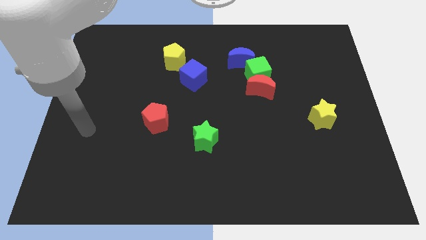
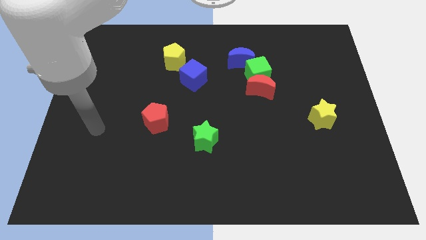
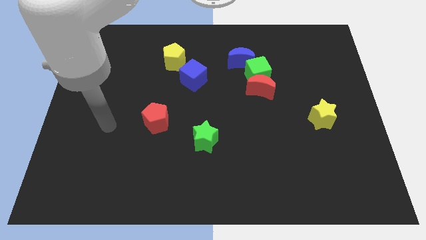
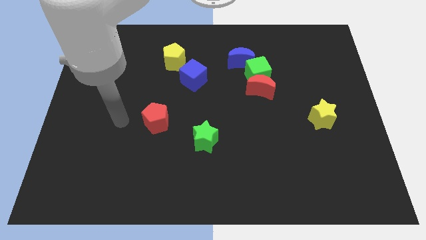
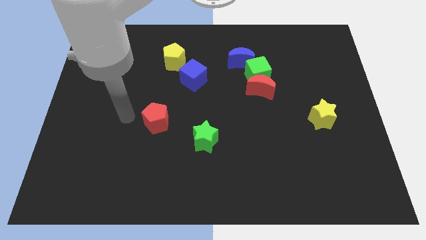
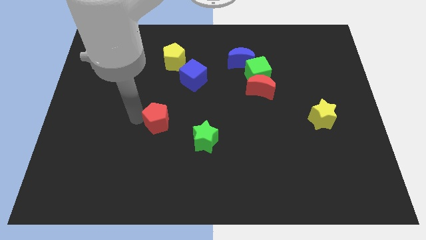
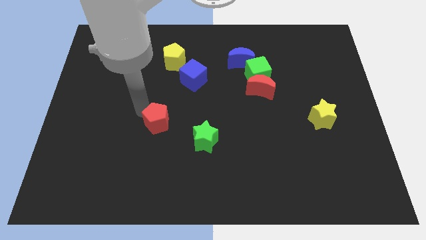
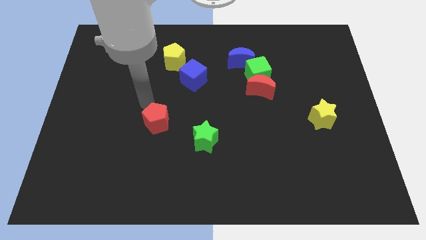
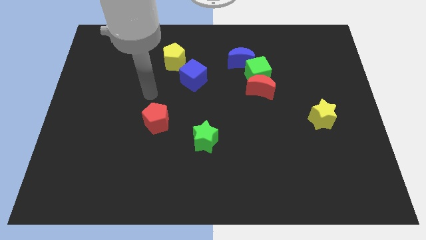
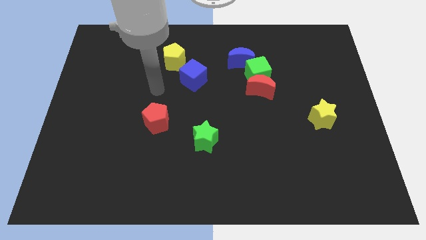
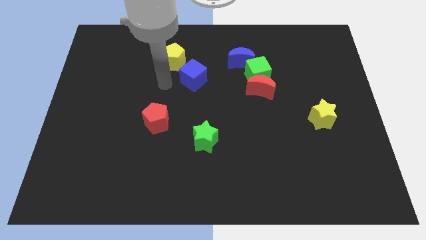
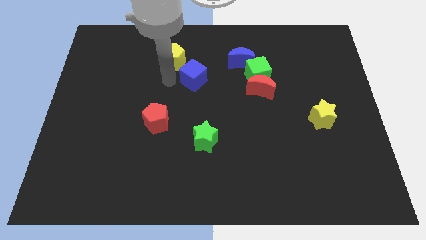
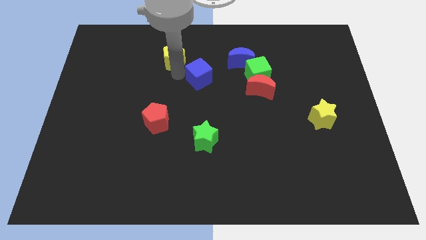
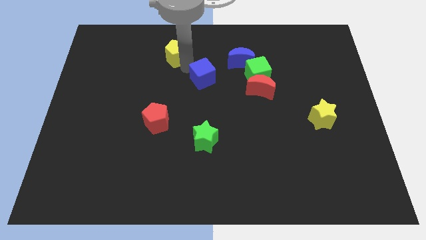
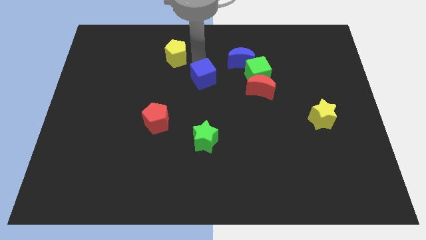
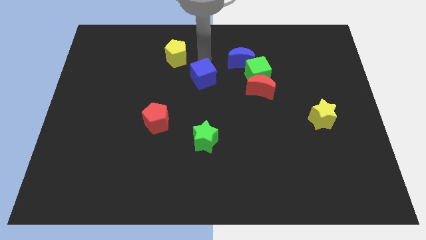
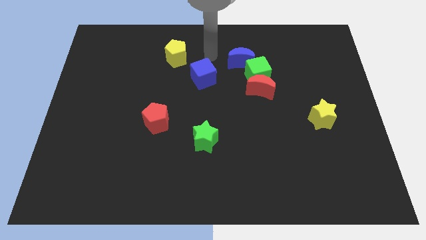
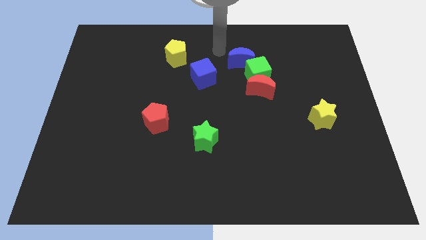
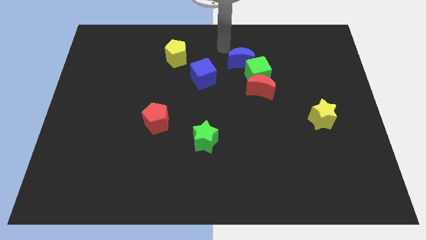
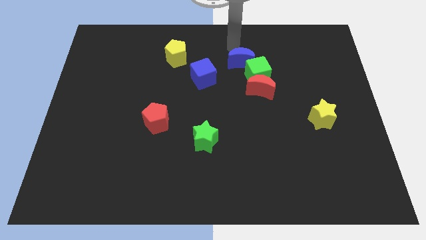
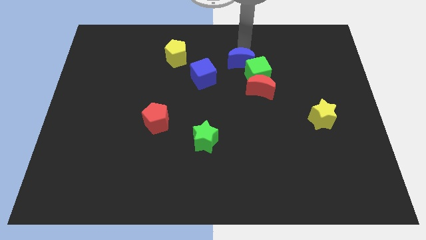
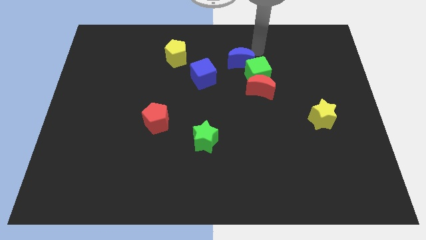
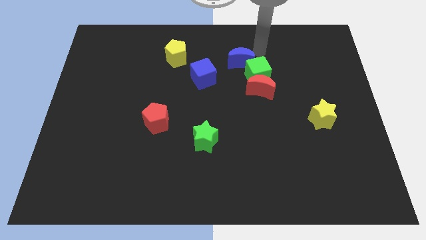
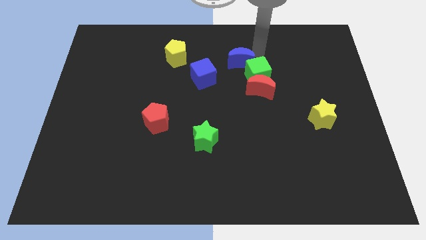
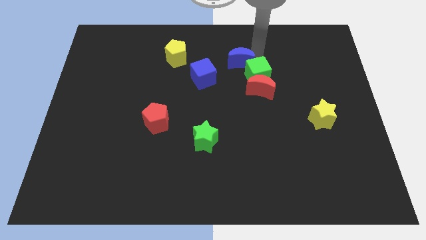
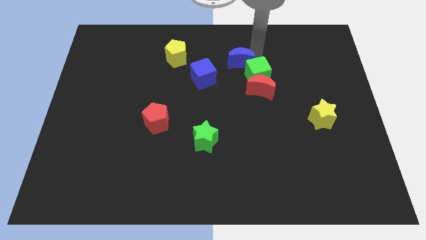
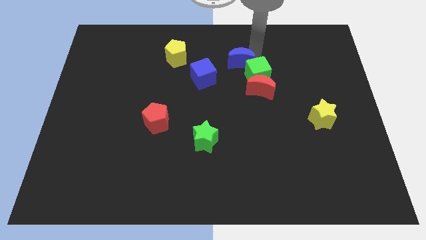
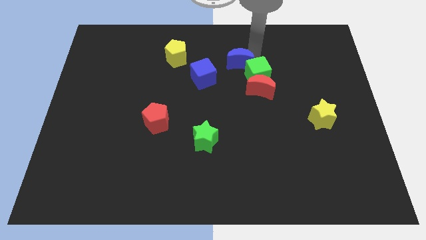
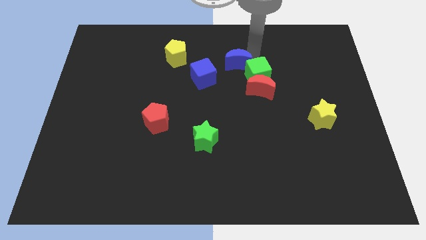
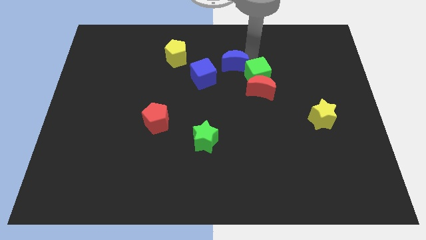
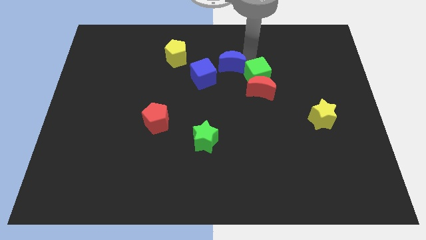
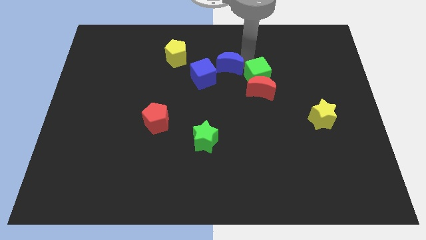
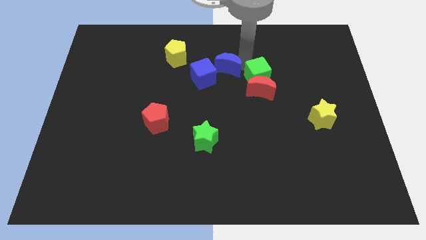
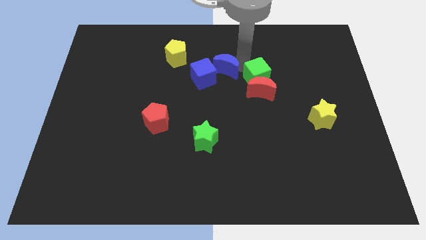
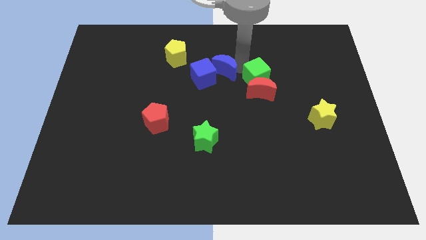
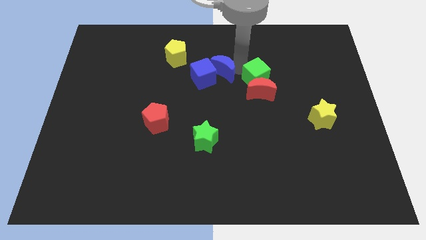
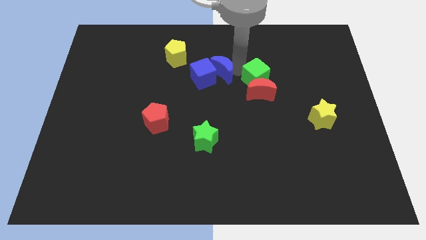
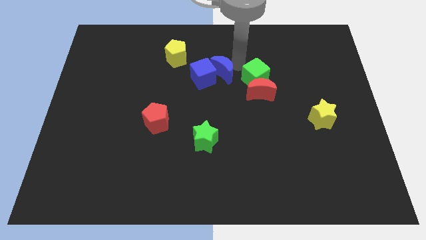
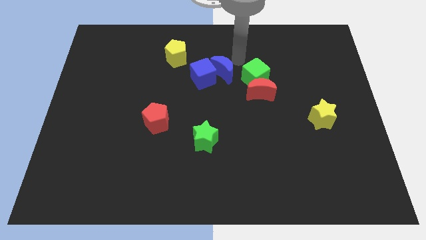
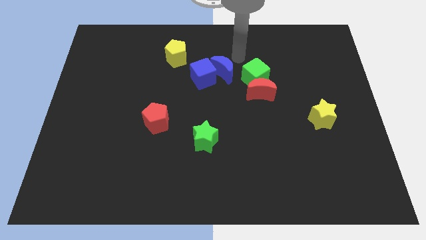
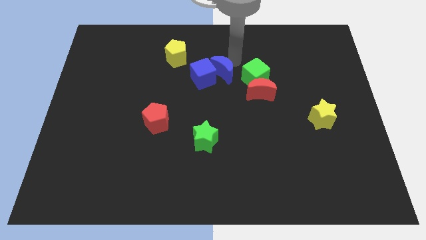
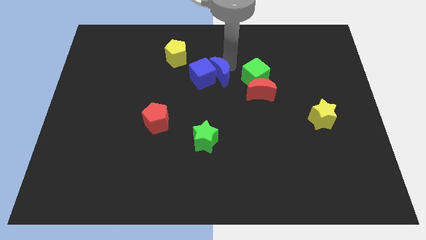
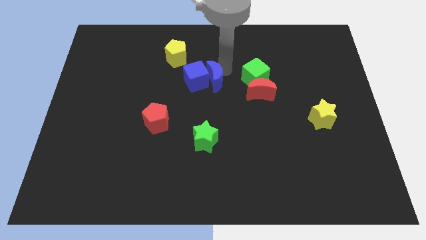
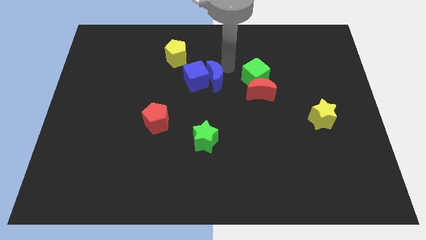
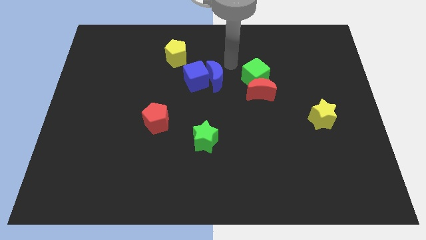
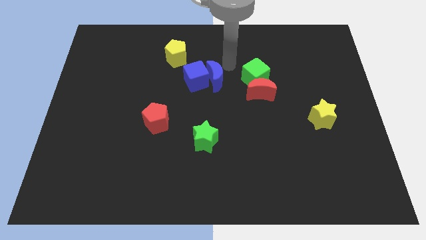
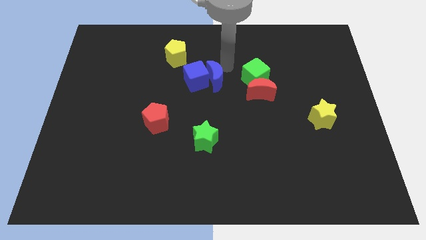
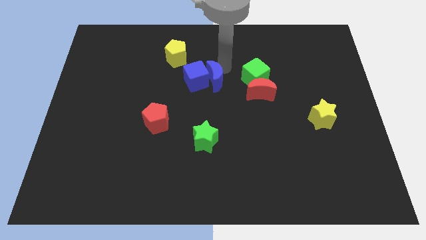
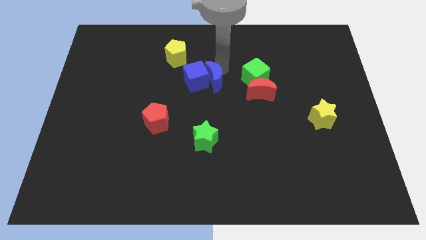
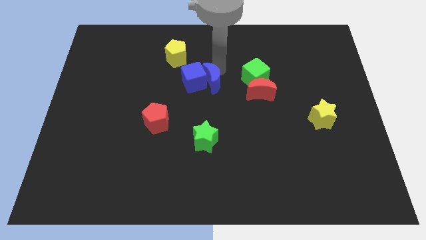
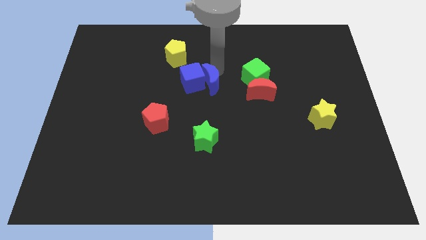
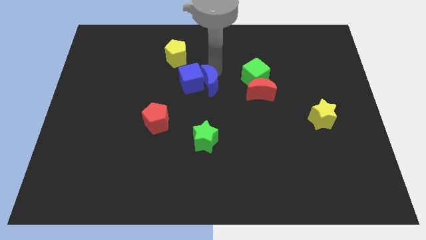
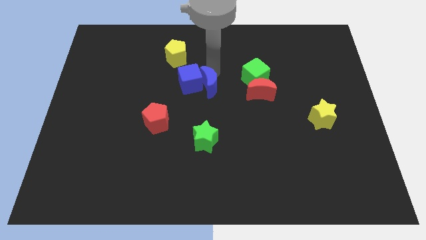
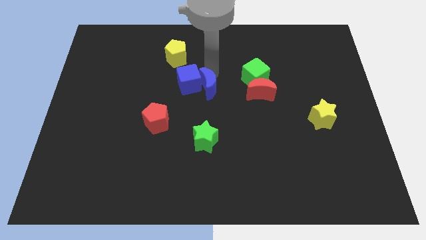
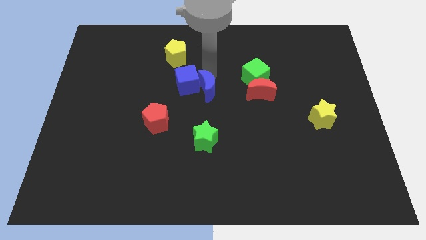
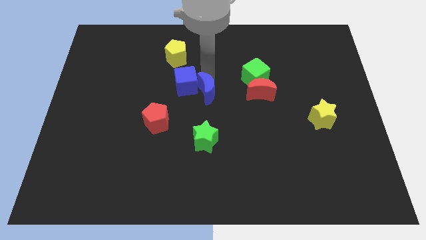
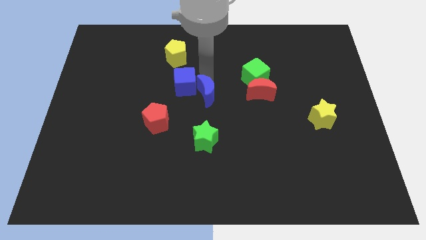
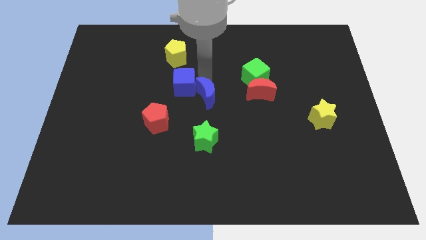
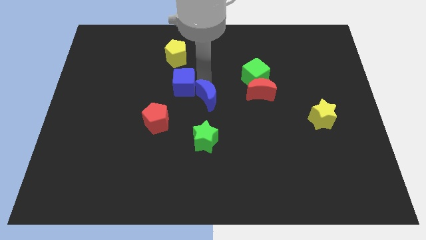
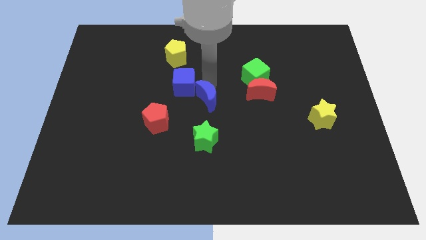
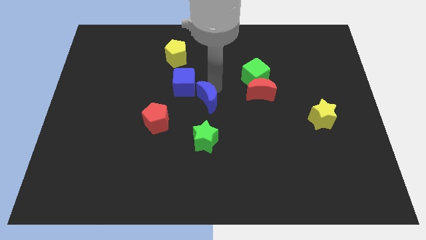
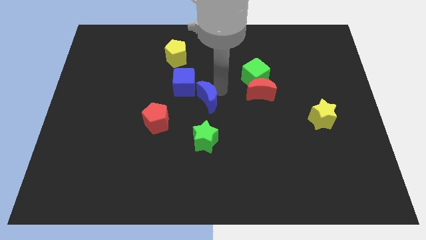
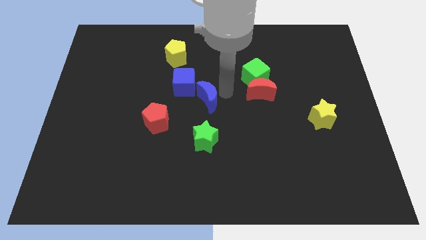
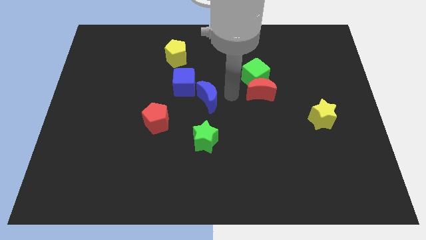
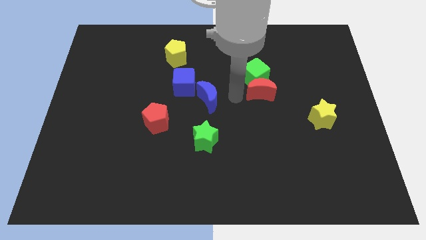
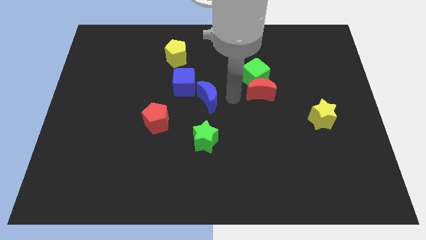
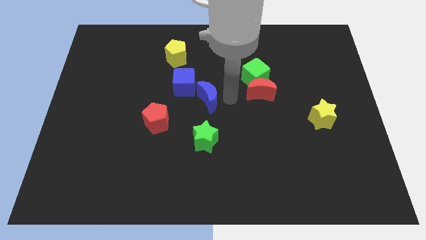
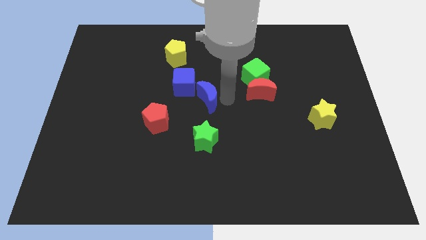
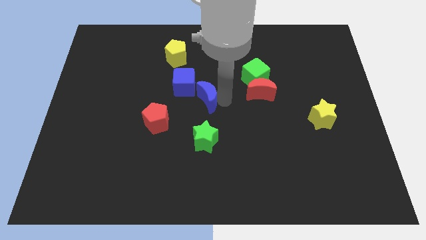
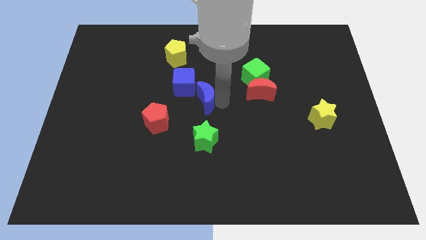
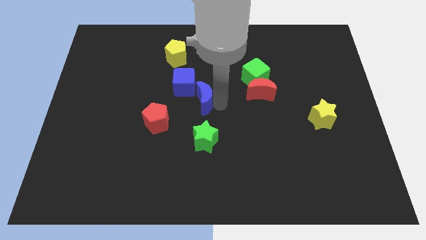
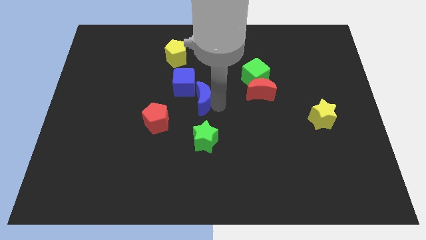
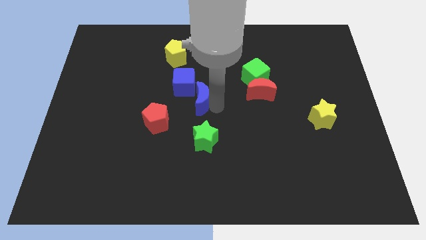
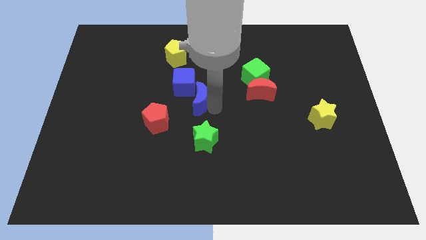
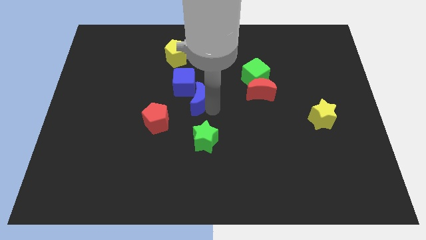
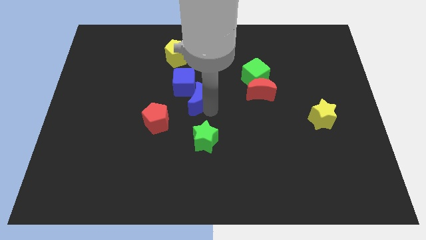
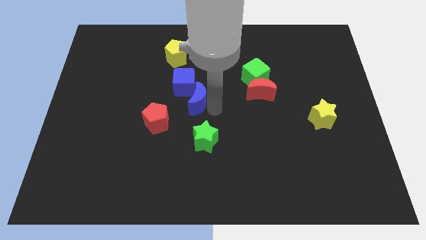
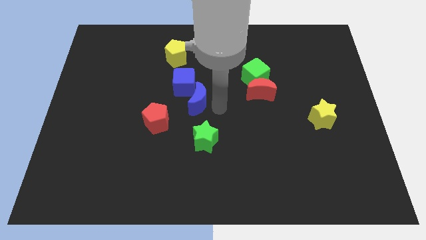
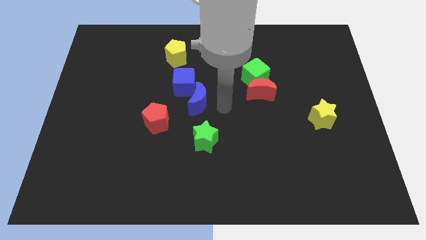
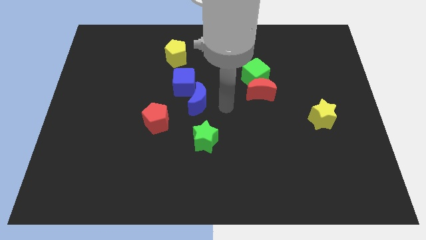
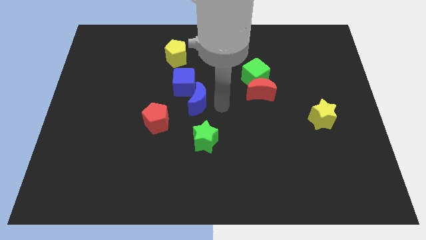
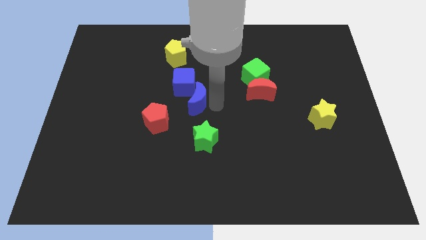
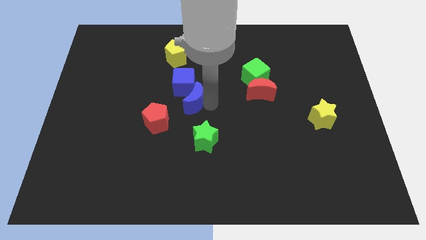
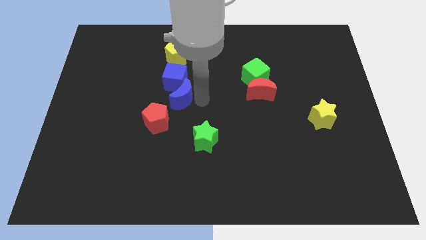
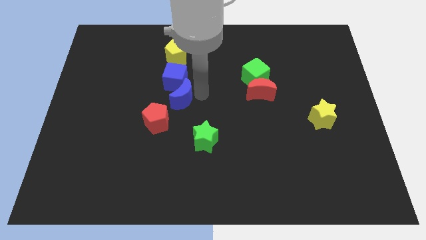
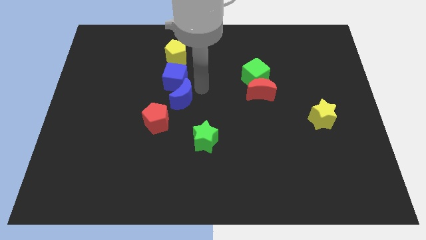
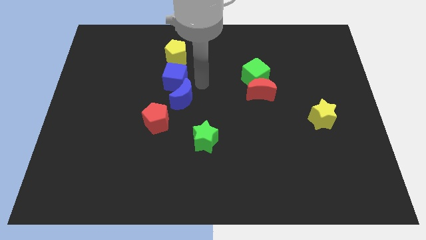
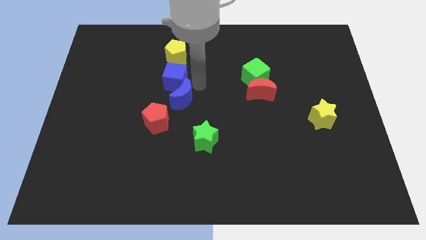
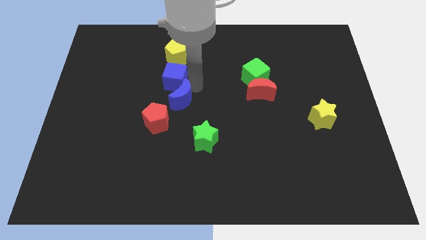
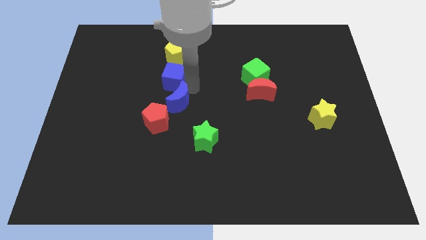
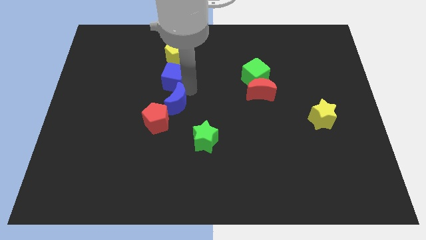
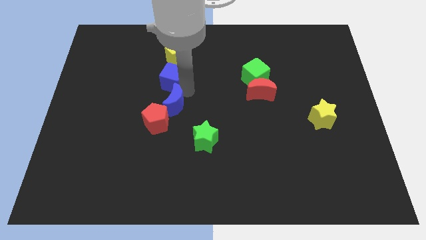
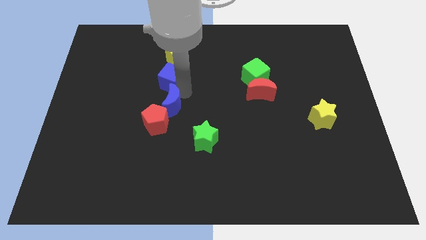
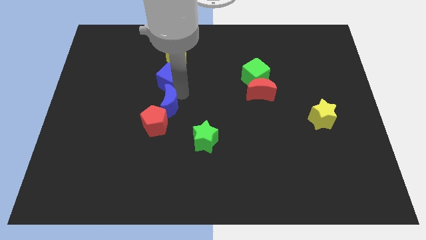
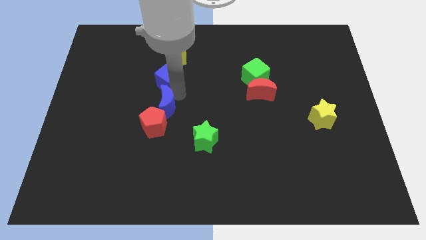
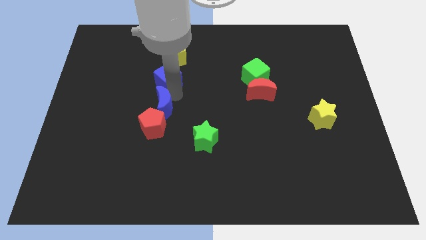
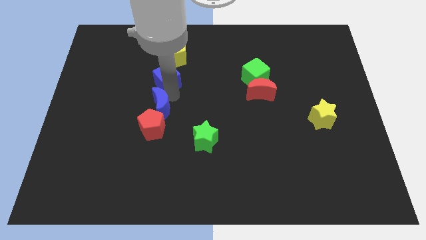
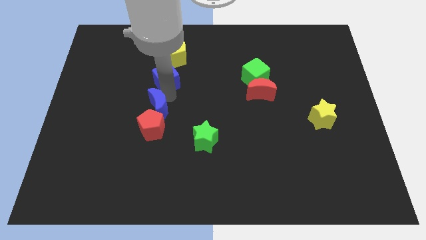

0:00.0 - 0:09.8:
push the blue moon next to the red pentagon
